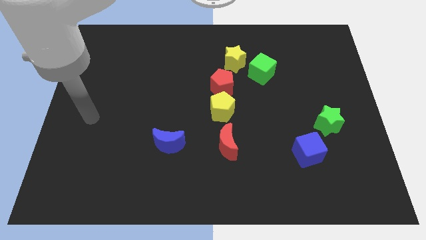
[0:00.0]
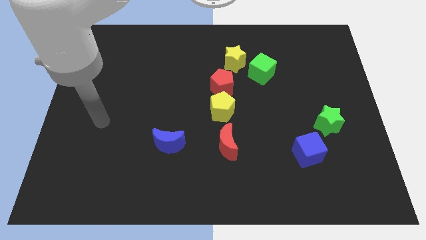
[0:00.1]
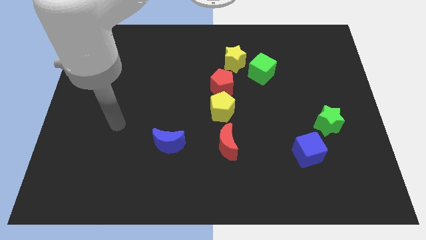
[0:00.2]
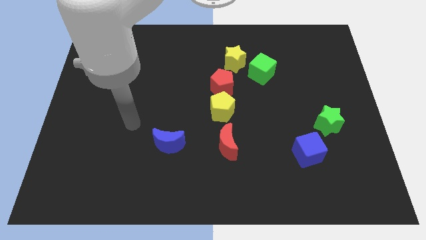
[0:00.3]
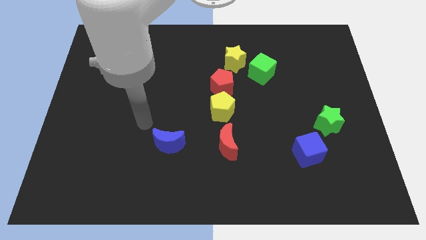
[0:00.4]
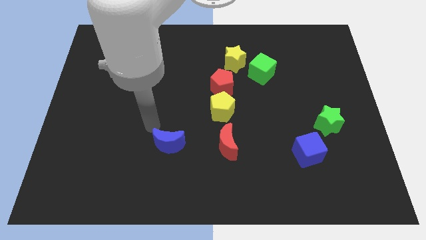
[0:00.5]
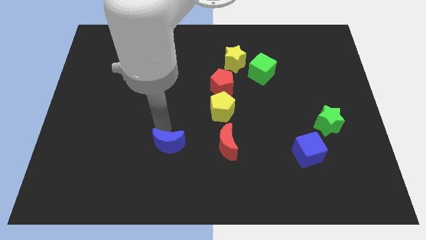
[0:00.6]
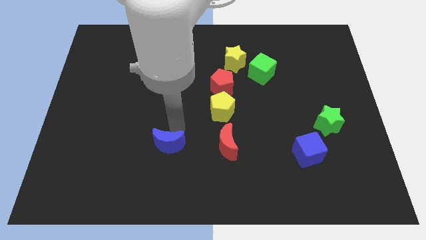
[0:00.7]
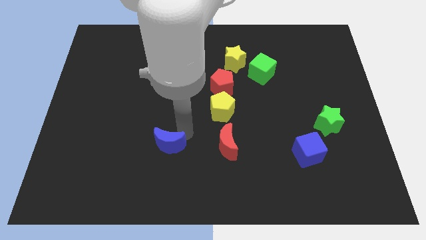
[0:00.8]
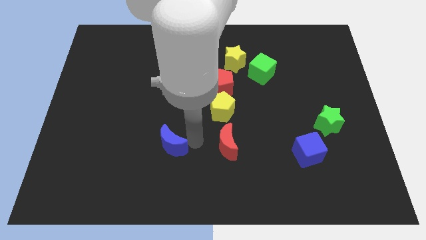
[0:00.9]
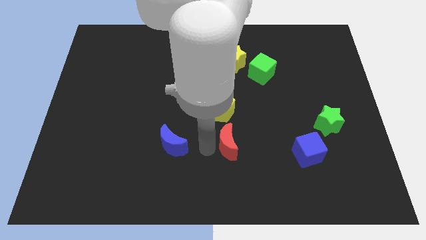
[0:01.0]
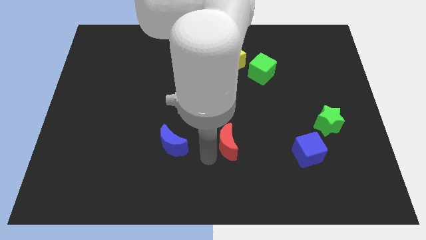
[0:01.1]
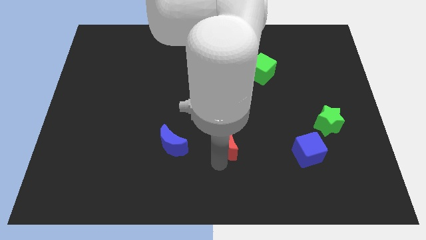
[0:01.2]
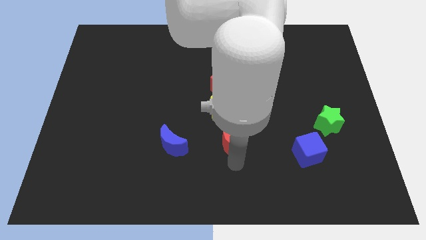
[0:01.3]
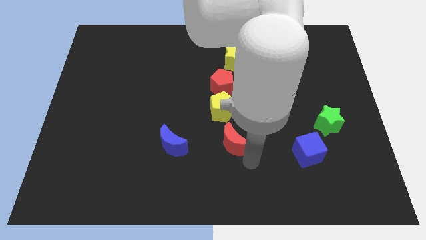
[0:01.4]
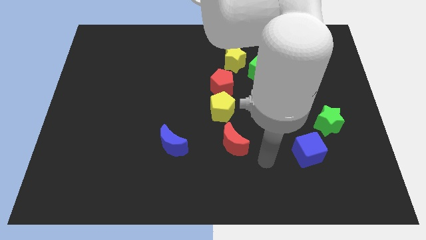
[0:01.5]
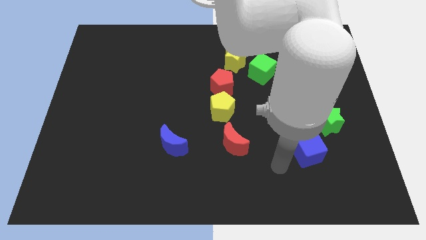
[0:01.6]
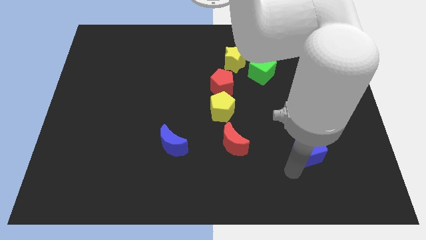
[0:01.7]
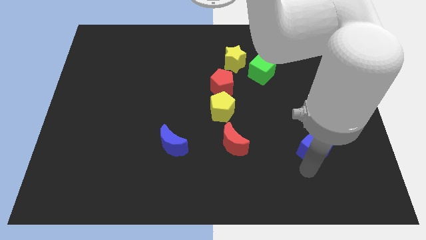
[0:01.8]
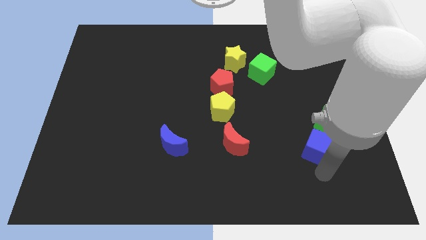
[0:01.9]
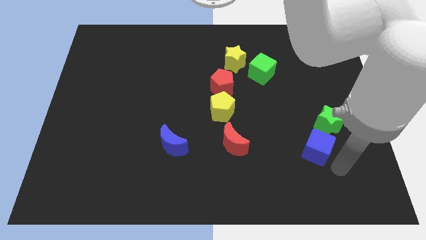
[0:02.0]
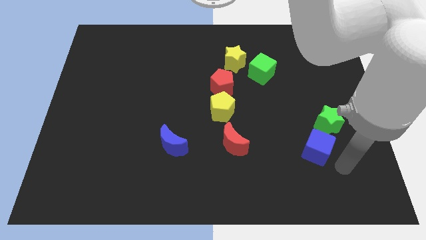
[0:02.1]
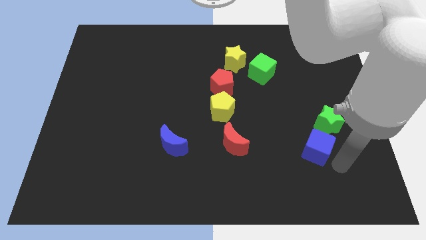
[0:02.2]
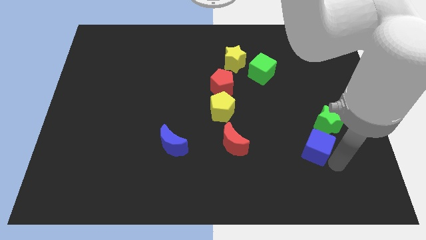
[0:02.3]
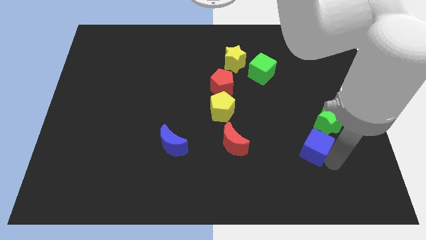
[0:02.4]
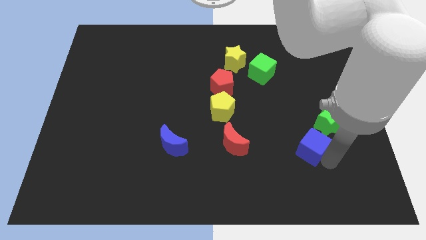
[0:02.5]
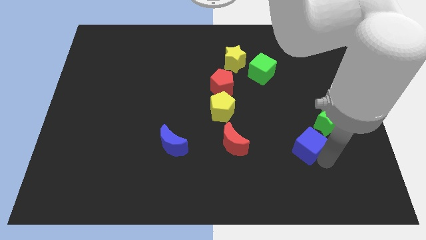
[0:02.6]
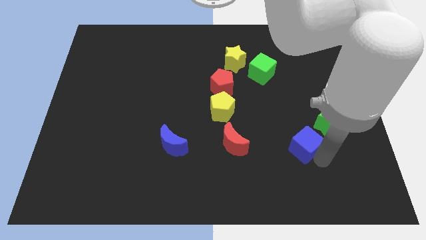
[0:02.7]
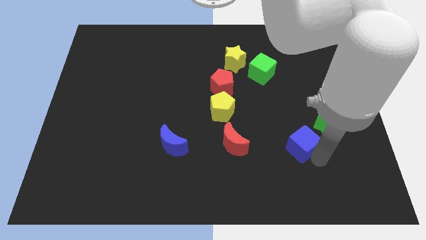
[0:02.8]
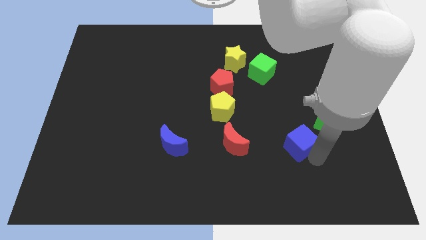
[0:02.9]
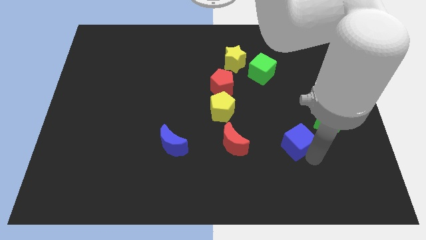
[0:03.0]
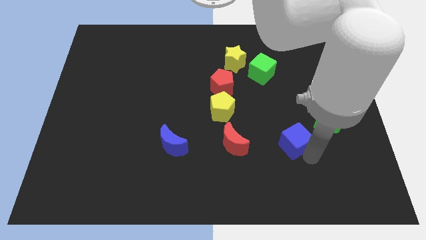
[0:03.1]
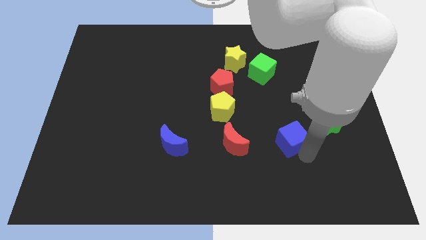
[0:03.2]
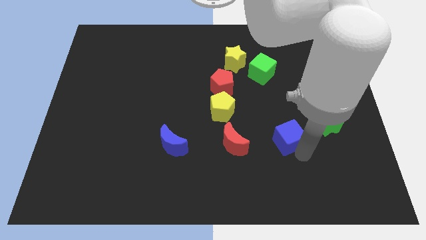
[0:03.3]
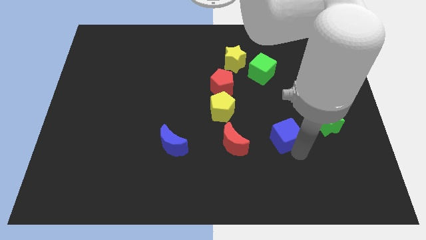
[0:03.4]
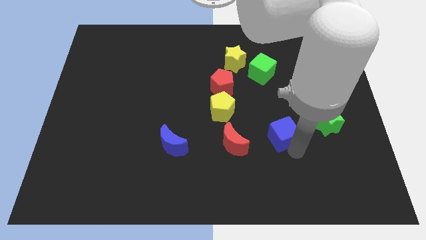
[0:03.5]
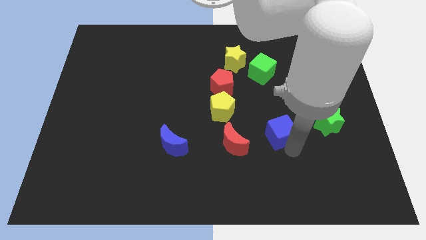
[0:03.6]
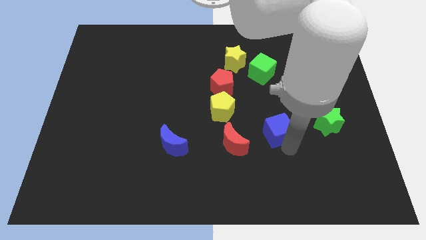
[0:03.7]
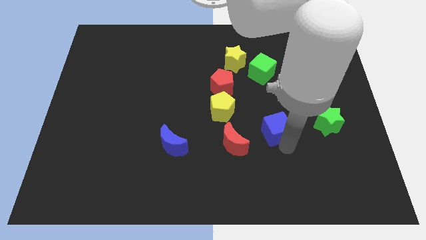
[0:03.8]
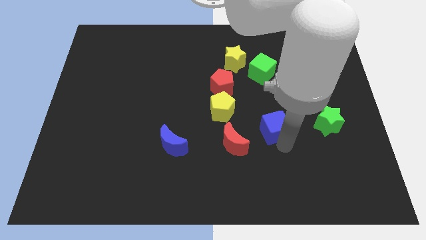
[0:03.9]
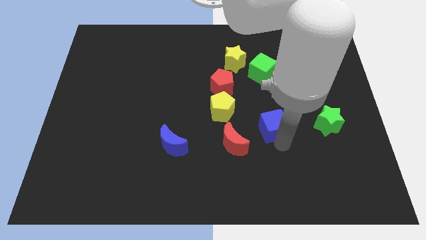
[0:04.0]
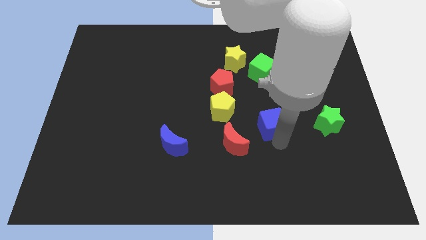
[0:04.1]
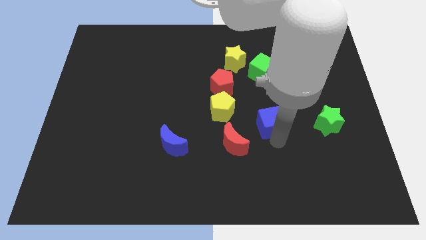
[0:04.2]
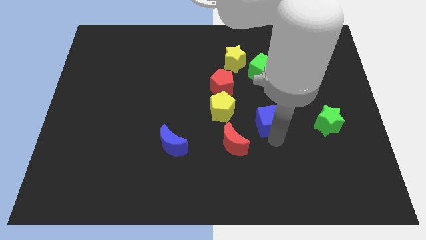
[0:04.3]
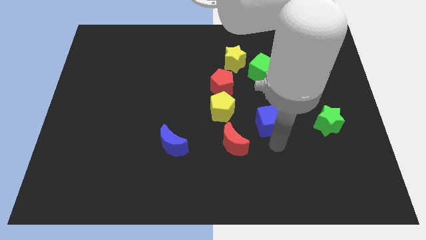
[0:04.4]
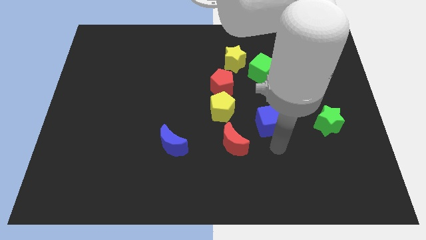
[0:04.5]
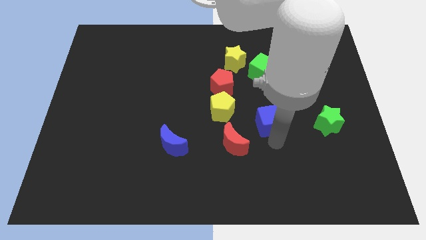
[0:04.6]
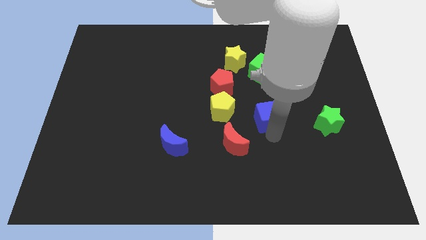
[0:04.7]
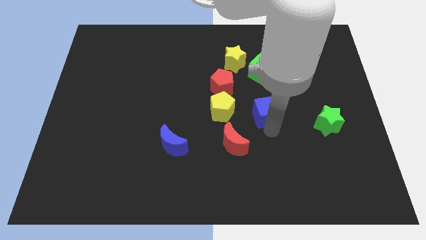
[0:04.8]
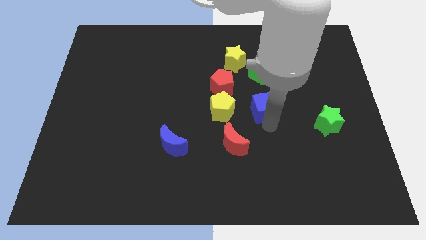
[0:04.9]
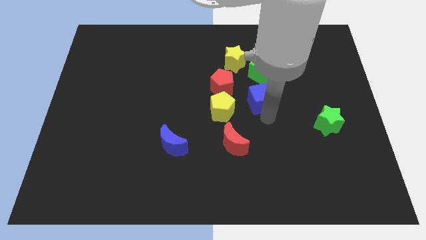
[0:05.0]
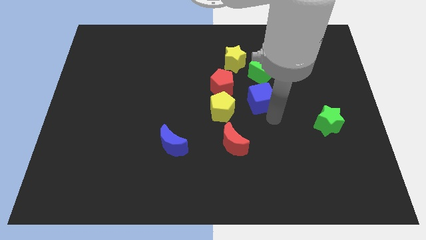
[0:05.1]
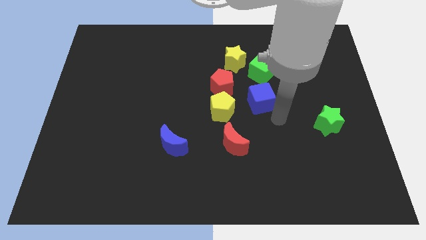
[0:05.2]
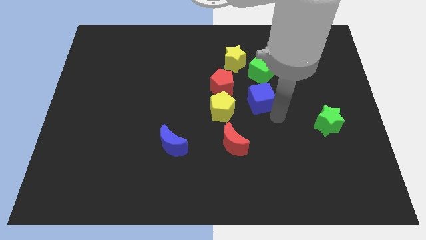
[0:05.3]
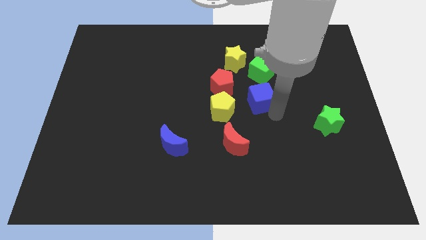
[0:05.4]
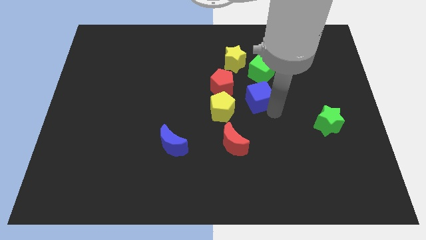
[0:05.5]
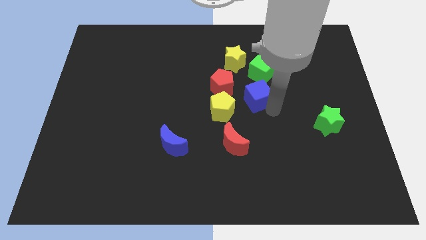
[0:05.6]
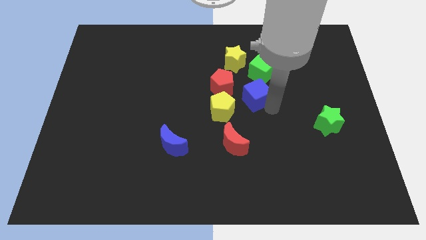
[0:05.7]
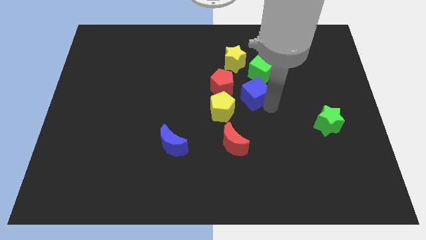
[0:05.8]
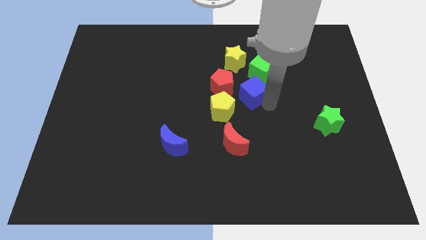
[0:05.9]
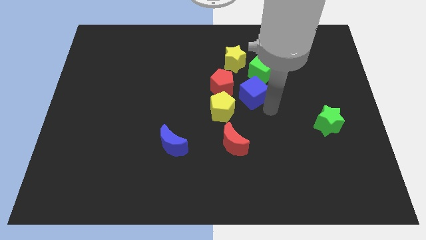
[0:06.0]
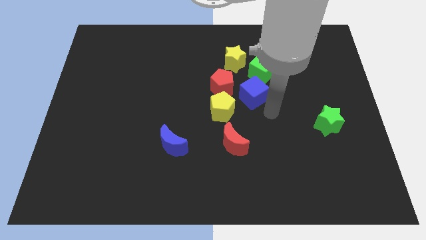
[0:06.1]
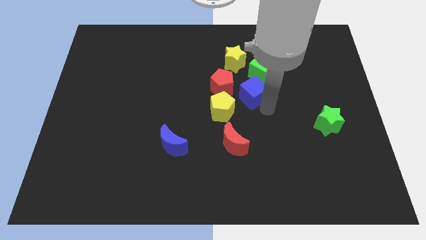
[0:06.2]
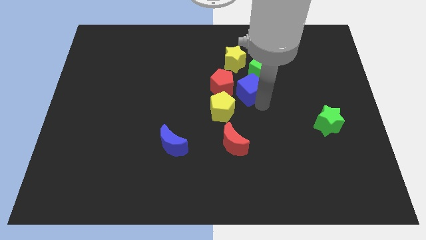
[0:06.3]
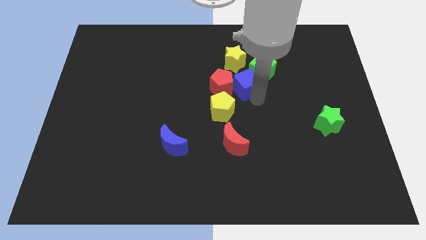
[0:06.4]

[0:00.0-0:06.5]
push the blue cube up and left diagonally

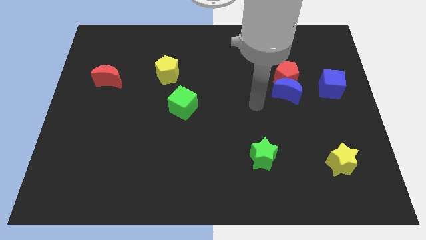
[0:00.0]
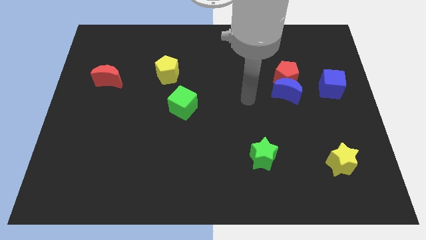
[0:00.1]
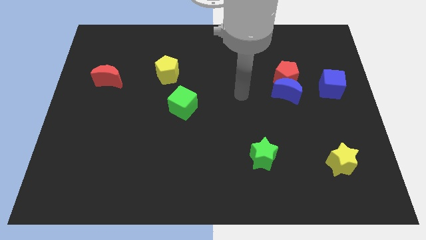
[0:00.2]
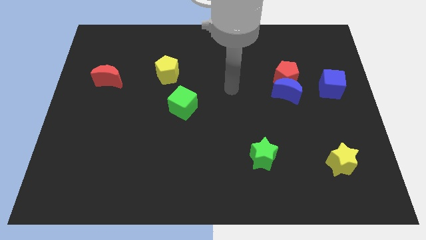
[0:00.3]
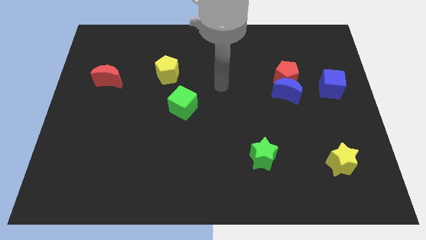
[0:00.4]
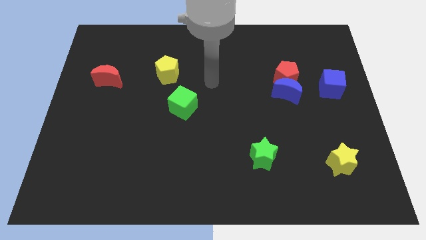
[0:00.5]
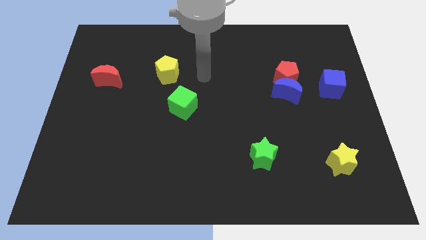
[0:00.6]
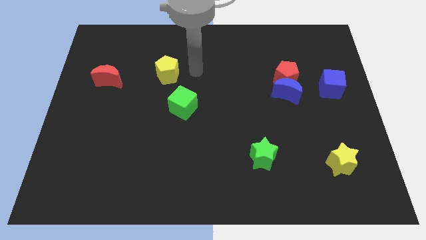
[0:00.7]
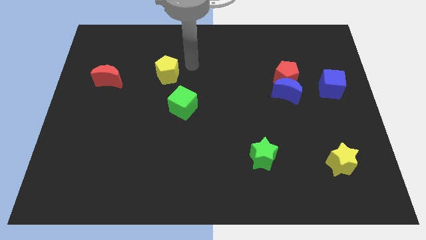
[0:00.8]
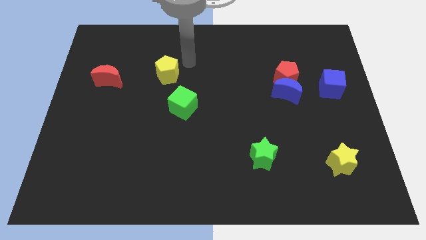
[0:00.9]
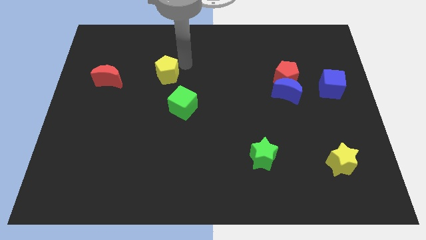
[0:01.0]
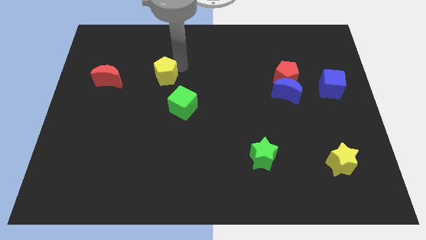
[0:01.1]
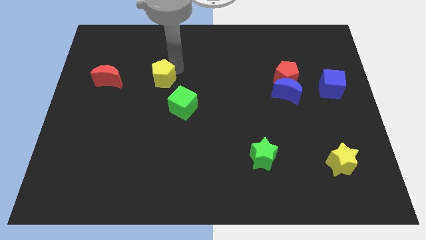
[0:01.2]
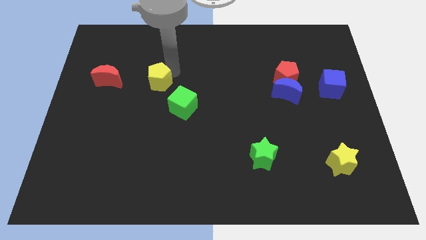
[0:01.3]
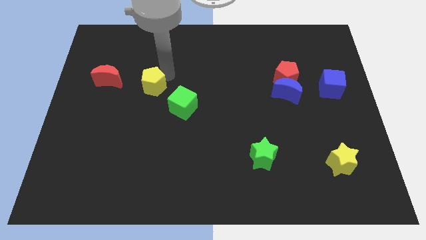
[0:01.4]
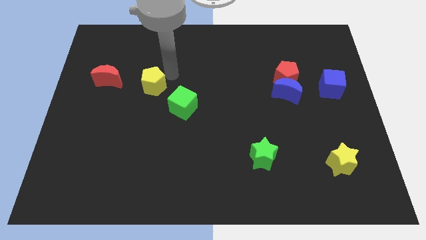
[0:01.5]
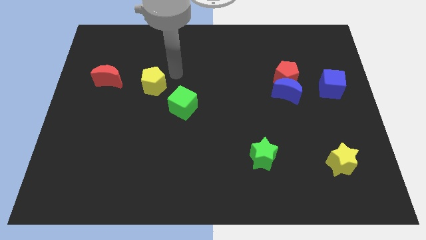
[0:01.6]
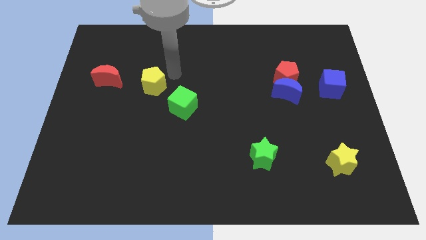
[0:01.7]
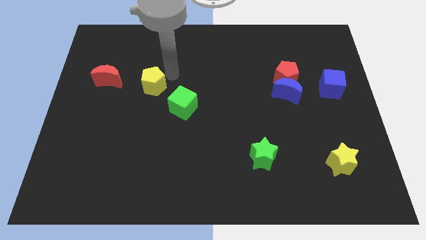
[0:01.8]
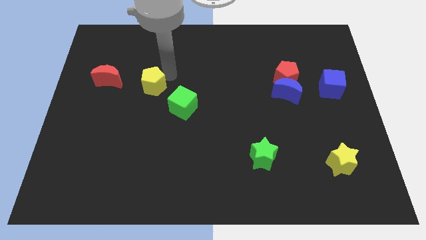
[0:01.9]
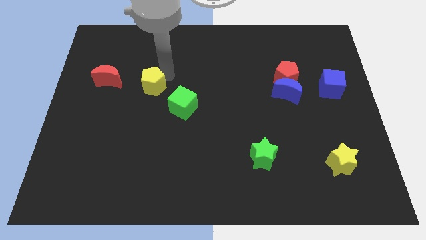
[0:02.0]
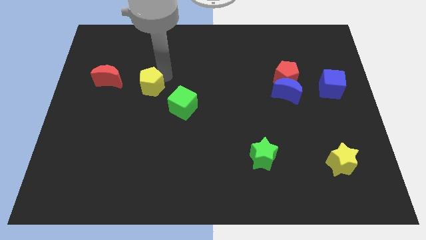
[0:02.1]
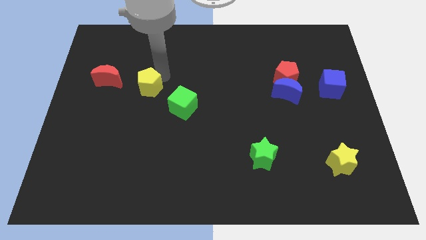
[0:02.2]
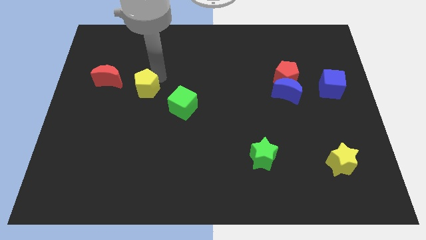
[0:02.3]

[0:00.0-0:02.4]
slightly push the yellow pentagon downwards and to the left diagonally
